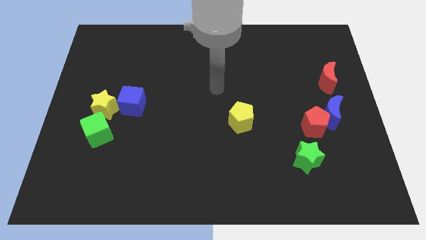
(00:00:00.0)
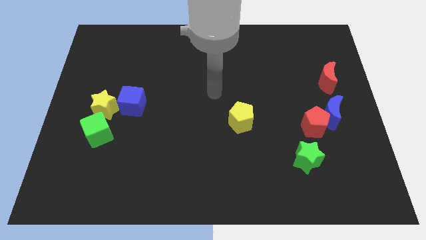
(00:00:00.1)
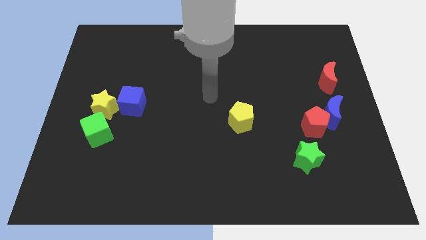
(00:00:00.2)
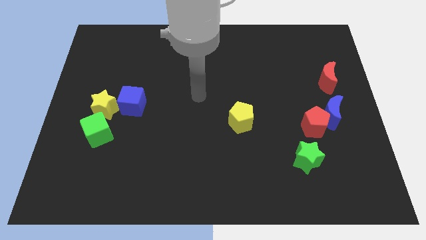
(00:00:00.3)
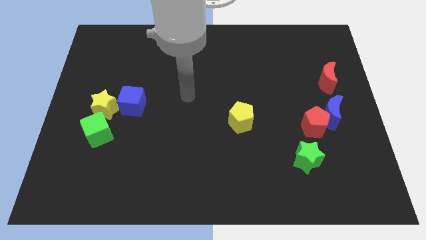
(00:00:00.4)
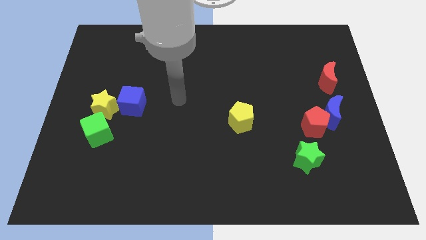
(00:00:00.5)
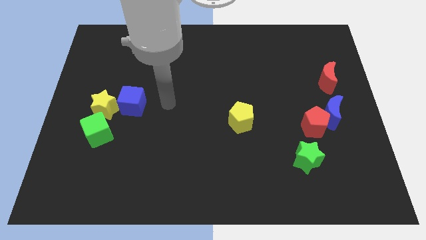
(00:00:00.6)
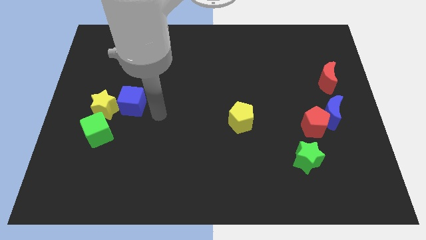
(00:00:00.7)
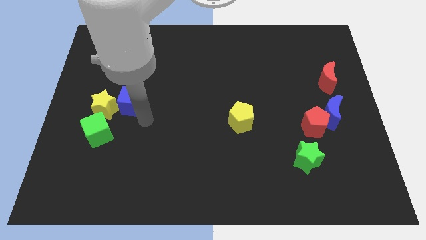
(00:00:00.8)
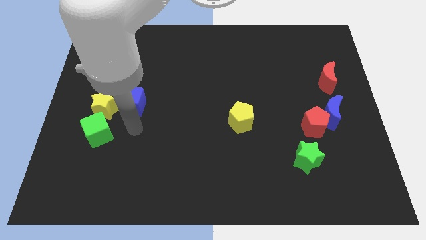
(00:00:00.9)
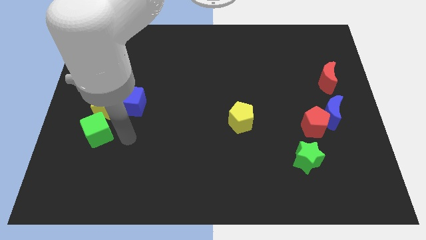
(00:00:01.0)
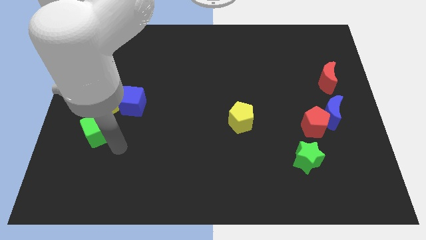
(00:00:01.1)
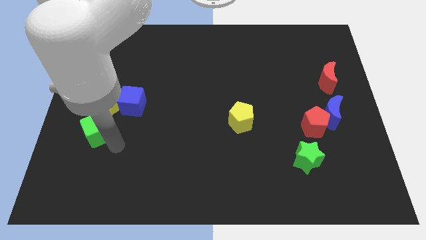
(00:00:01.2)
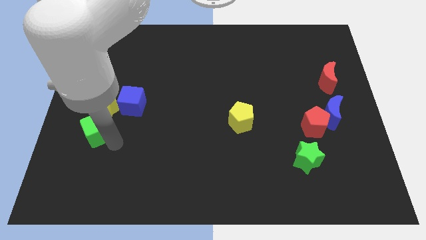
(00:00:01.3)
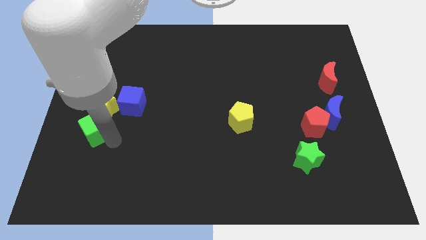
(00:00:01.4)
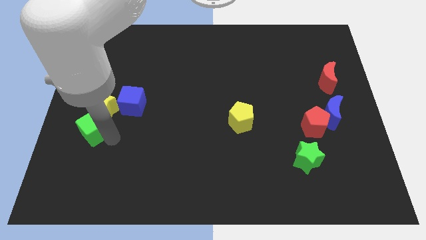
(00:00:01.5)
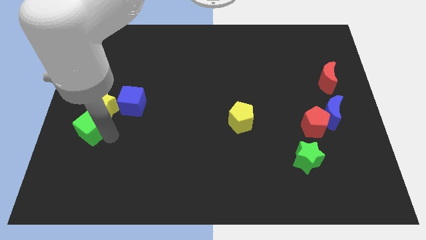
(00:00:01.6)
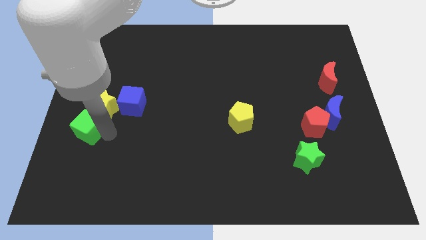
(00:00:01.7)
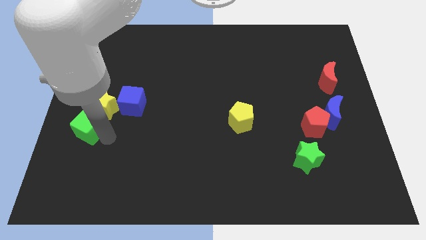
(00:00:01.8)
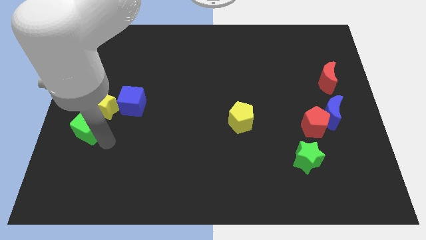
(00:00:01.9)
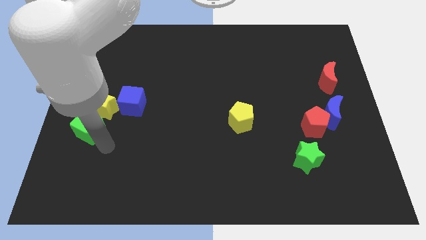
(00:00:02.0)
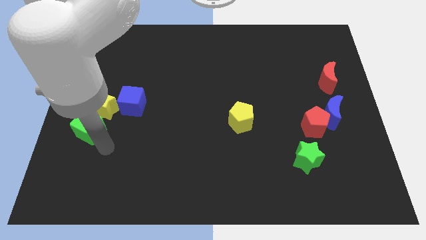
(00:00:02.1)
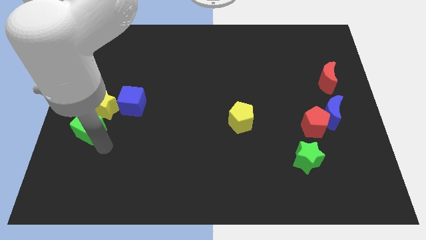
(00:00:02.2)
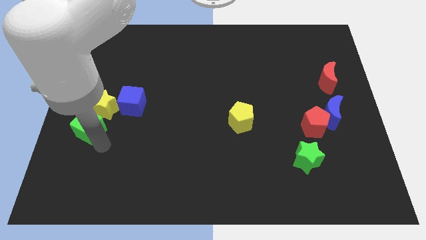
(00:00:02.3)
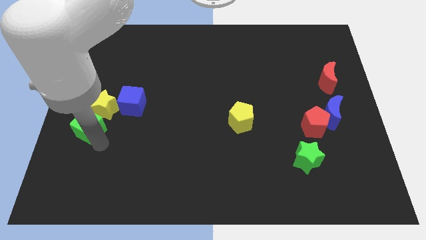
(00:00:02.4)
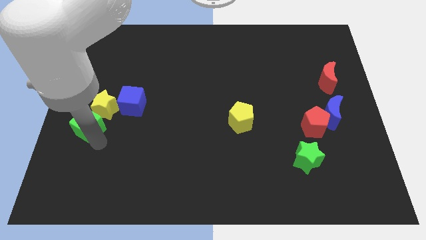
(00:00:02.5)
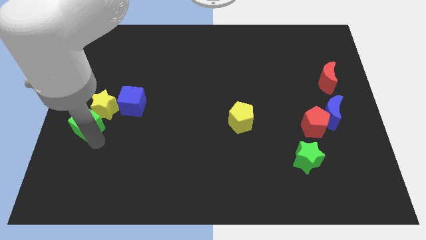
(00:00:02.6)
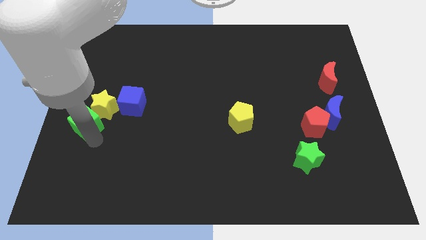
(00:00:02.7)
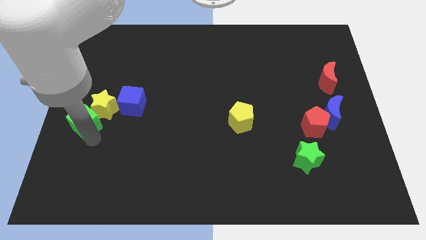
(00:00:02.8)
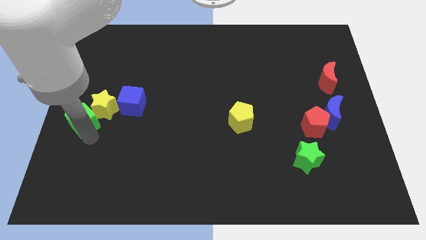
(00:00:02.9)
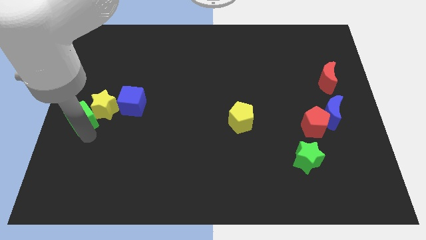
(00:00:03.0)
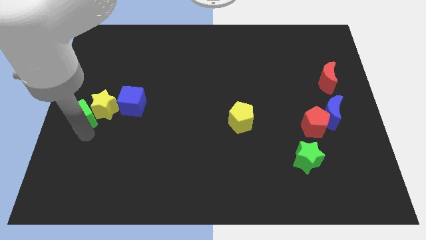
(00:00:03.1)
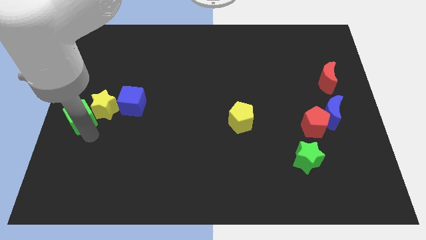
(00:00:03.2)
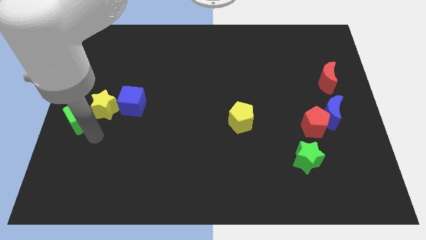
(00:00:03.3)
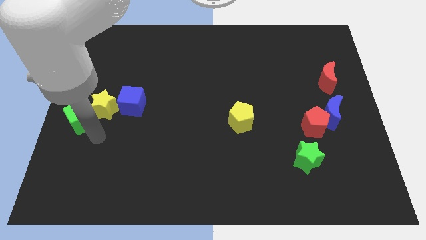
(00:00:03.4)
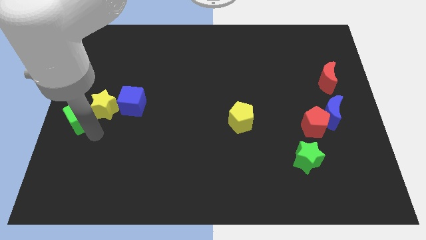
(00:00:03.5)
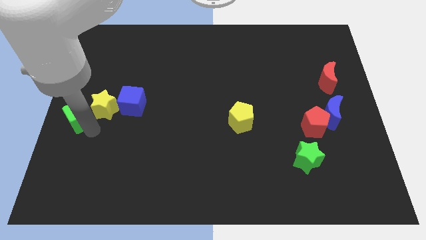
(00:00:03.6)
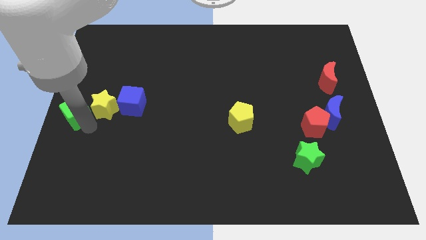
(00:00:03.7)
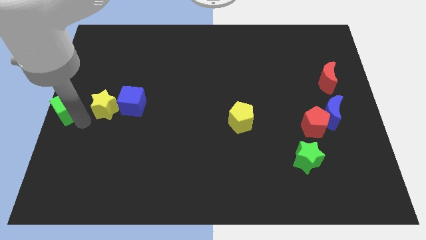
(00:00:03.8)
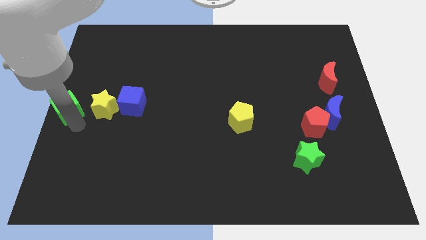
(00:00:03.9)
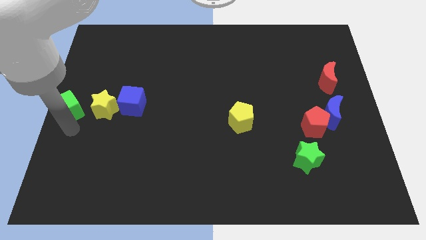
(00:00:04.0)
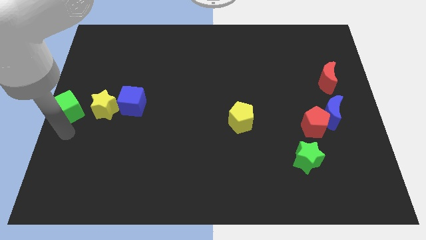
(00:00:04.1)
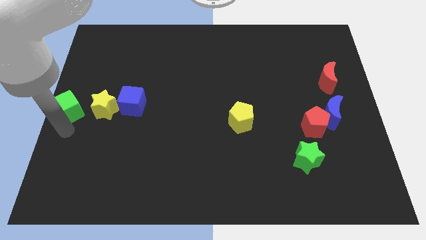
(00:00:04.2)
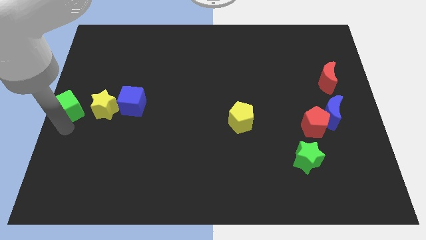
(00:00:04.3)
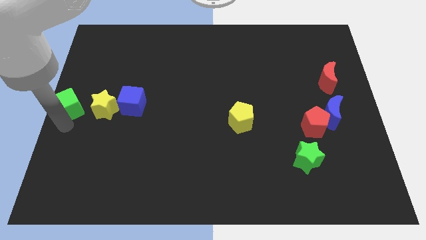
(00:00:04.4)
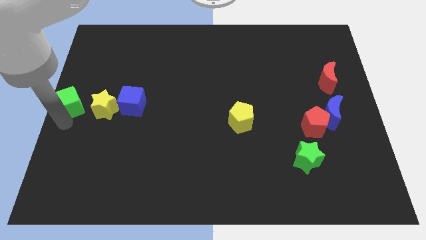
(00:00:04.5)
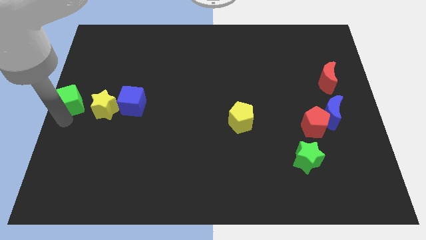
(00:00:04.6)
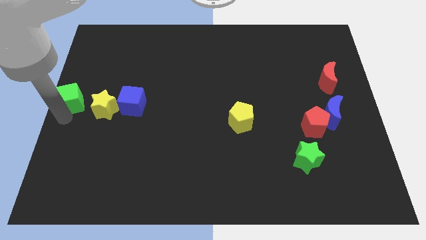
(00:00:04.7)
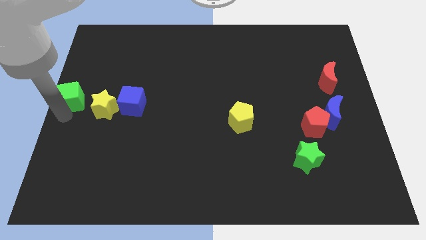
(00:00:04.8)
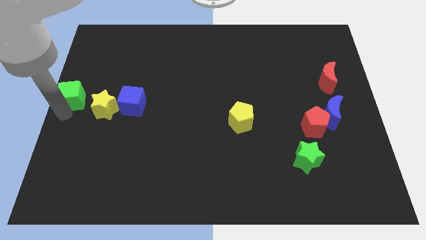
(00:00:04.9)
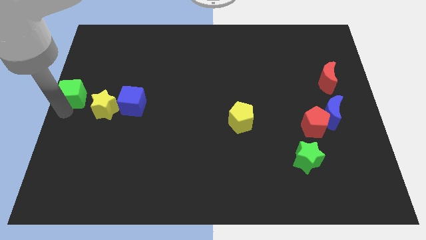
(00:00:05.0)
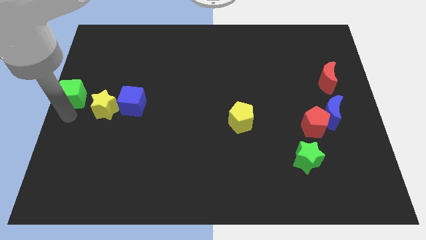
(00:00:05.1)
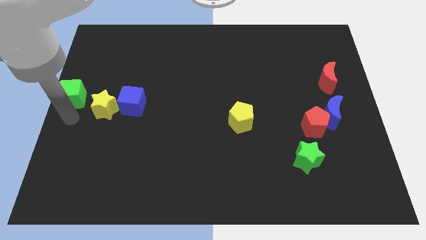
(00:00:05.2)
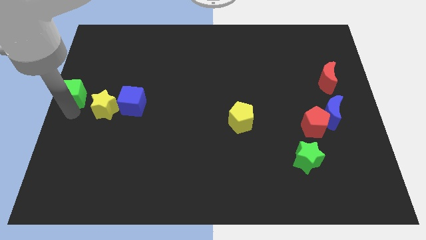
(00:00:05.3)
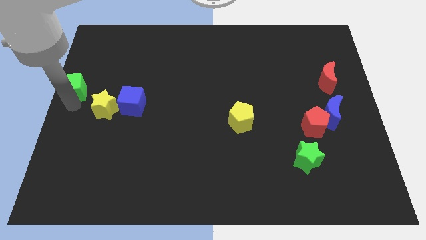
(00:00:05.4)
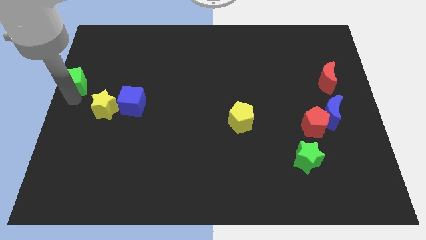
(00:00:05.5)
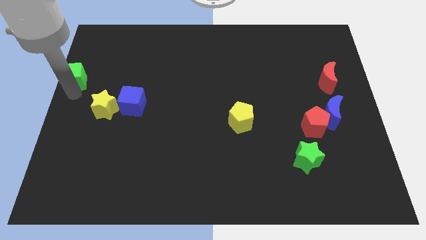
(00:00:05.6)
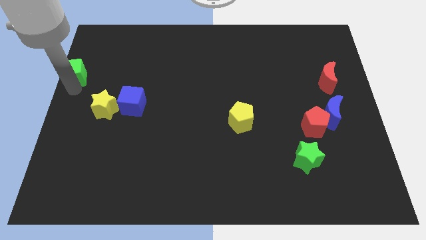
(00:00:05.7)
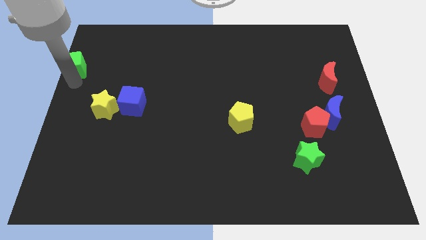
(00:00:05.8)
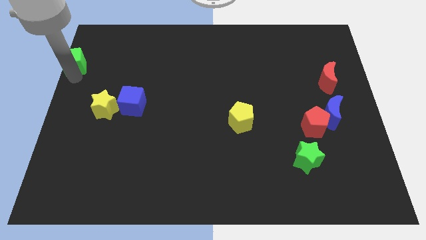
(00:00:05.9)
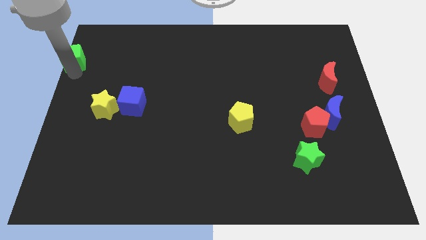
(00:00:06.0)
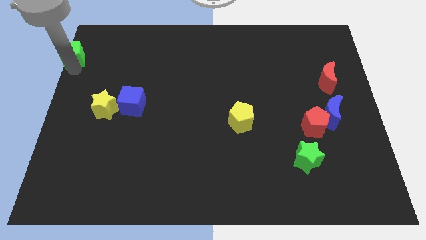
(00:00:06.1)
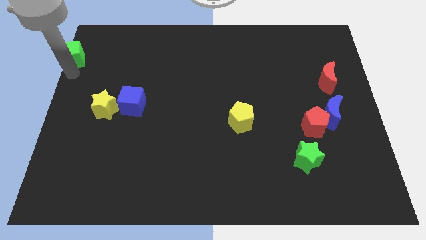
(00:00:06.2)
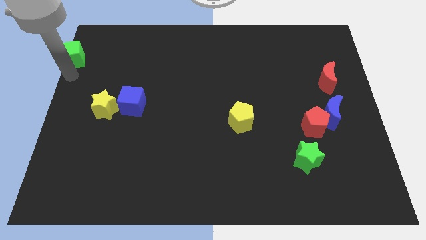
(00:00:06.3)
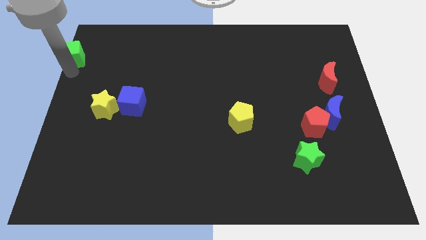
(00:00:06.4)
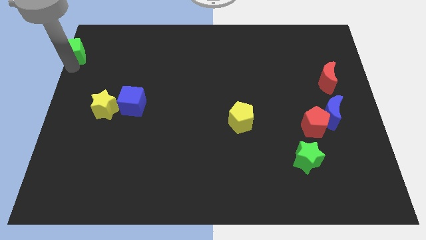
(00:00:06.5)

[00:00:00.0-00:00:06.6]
put the green cube to the top left corner
